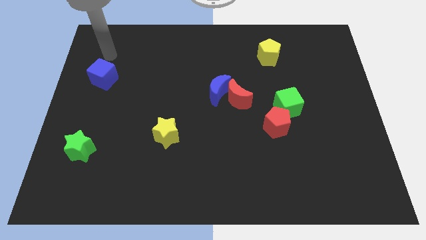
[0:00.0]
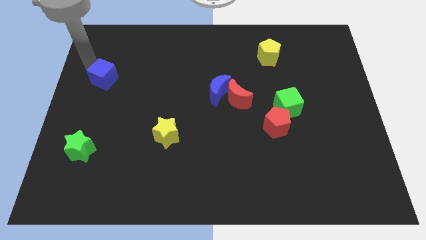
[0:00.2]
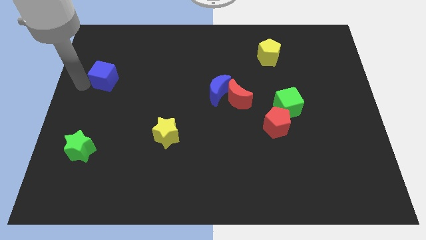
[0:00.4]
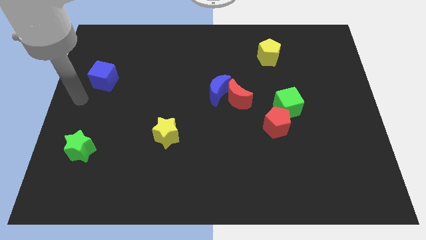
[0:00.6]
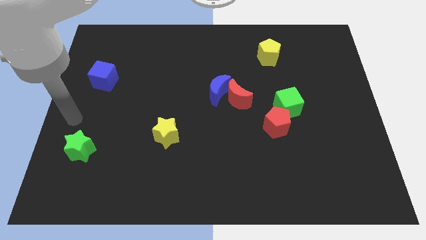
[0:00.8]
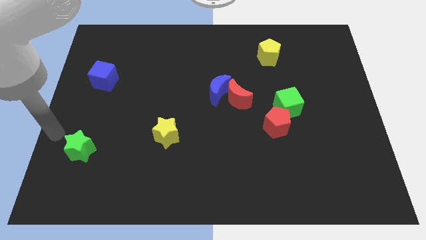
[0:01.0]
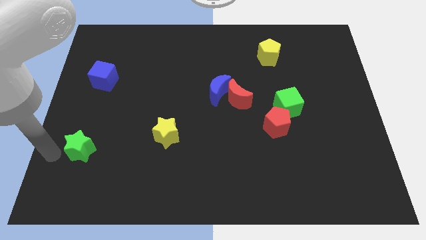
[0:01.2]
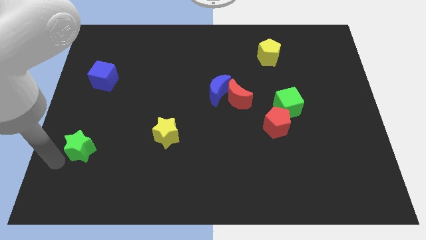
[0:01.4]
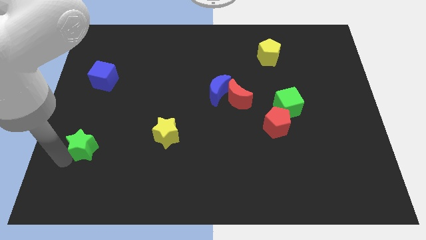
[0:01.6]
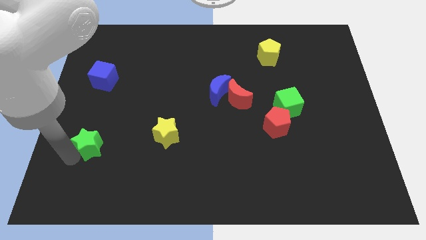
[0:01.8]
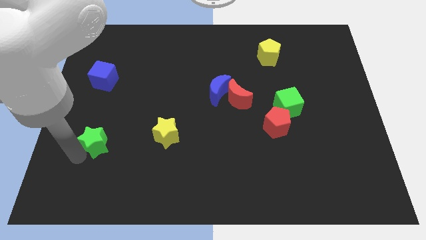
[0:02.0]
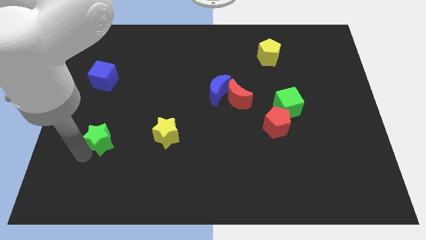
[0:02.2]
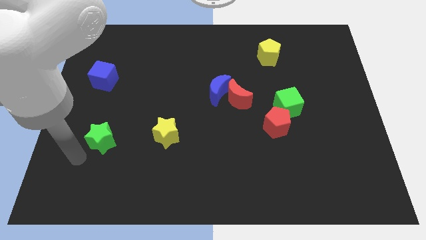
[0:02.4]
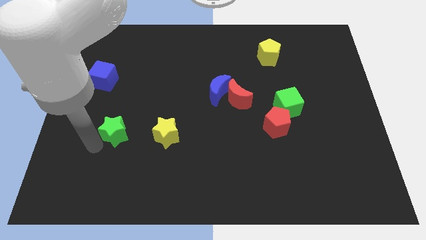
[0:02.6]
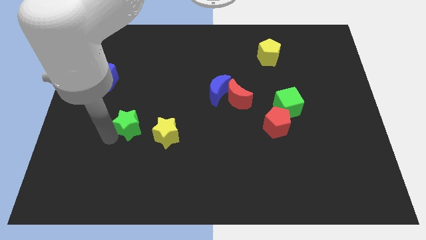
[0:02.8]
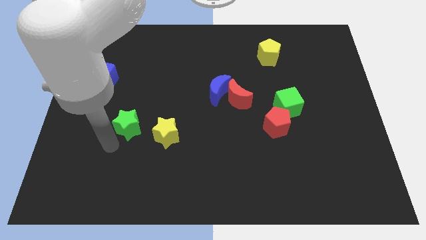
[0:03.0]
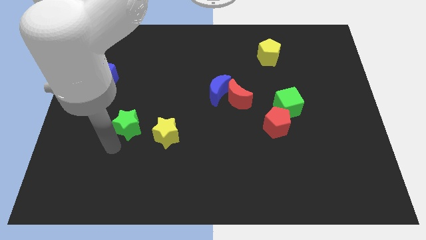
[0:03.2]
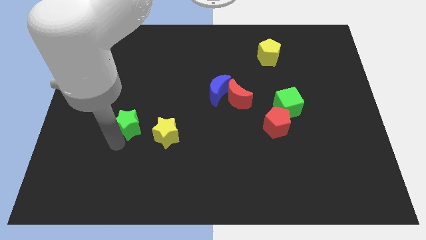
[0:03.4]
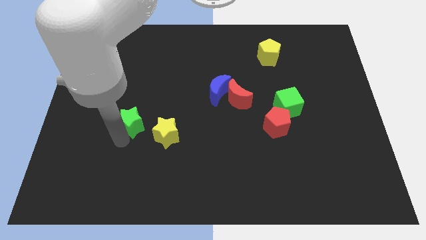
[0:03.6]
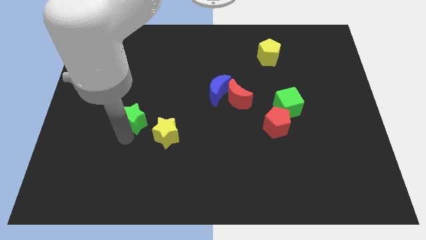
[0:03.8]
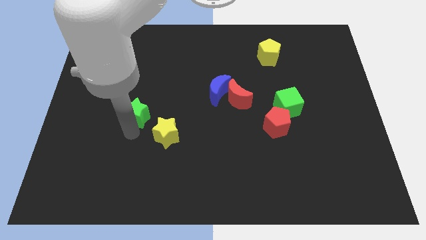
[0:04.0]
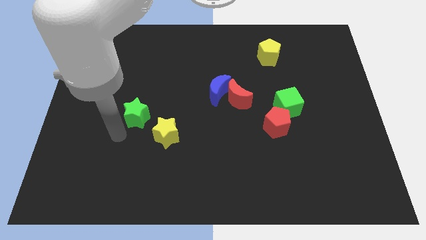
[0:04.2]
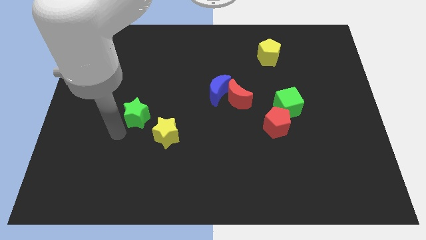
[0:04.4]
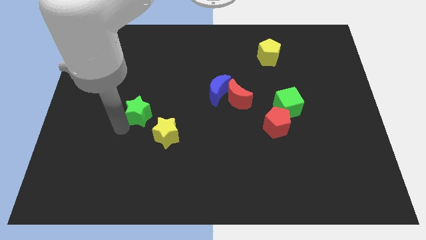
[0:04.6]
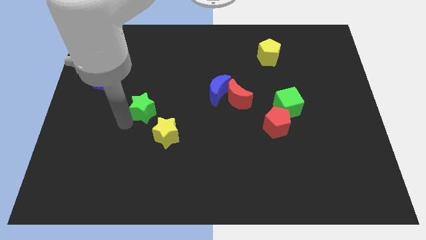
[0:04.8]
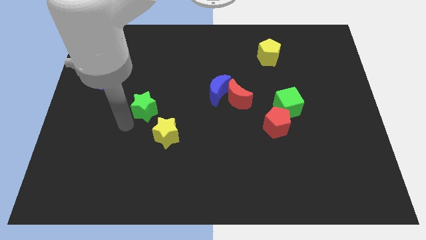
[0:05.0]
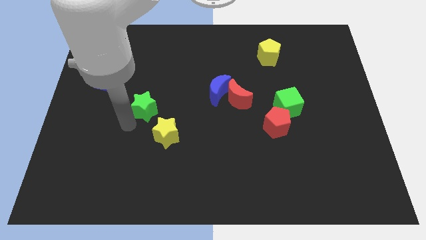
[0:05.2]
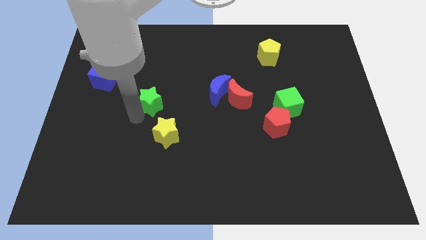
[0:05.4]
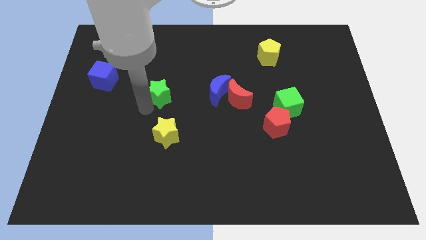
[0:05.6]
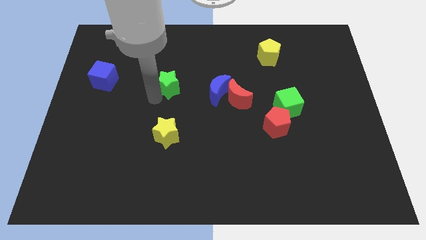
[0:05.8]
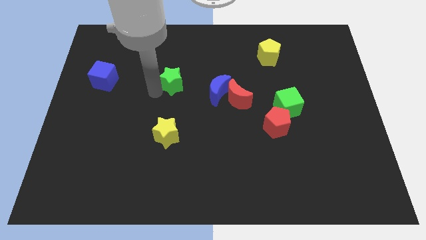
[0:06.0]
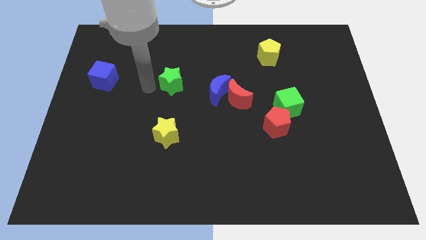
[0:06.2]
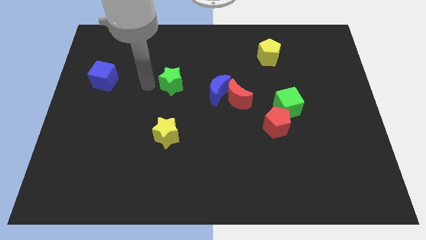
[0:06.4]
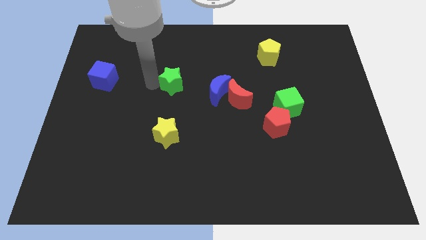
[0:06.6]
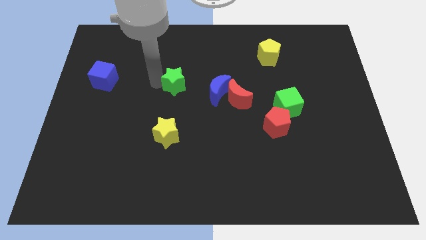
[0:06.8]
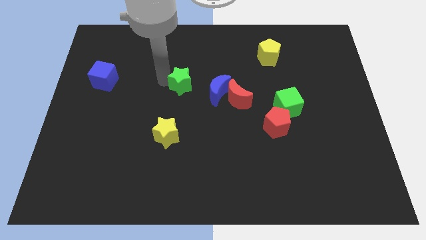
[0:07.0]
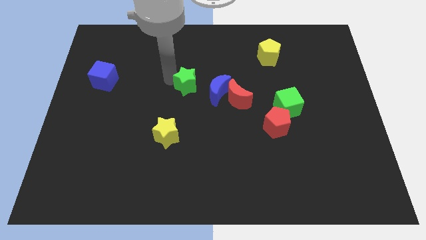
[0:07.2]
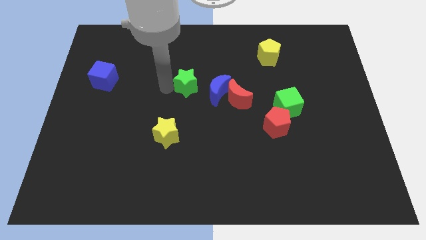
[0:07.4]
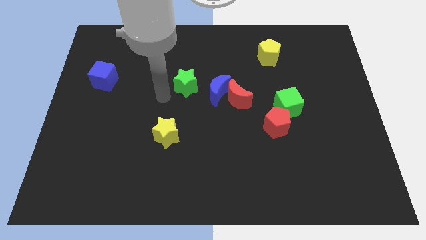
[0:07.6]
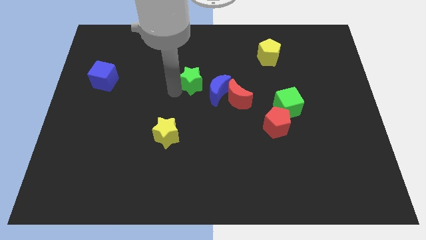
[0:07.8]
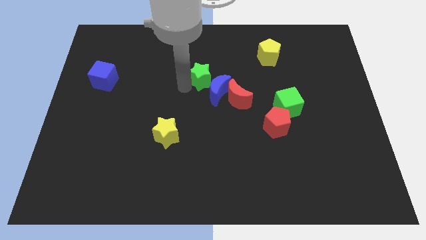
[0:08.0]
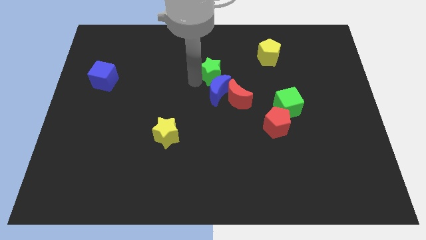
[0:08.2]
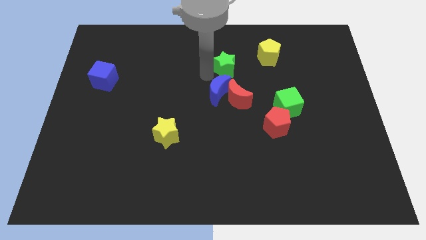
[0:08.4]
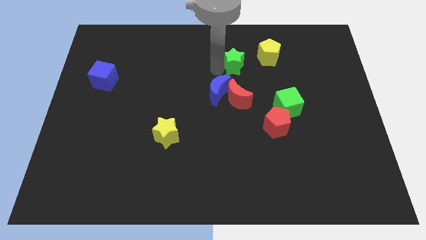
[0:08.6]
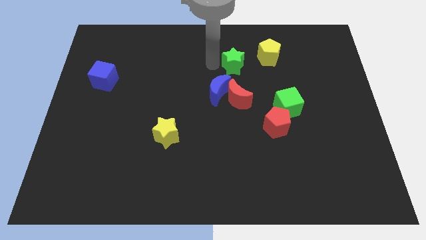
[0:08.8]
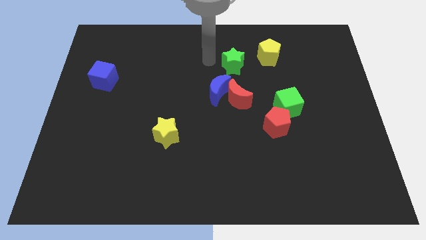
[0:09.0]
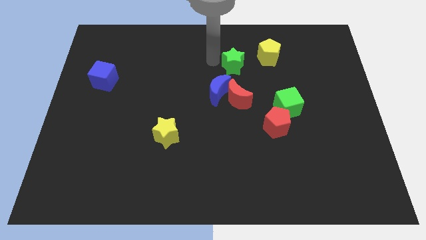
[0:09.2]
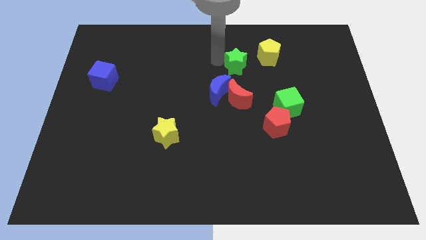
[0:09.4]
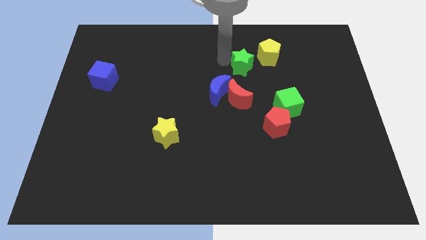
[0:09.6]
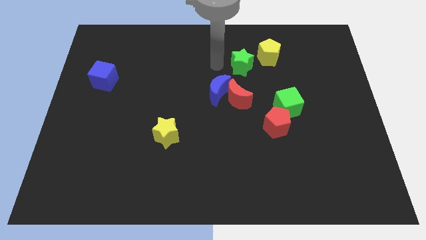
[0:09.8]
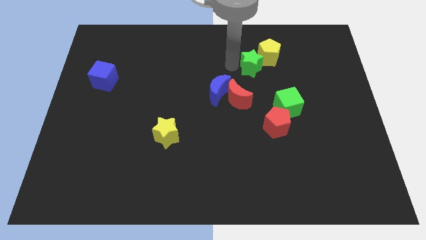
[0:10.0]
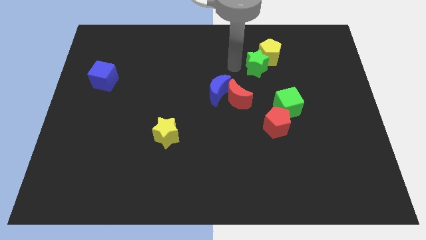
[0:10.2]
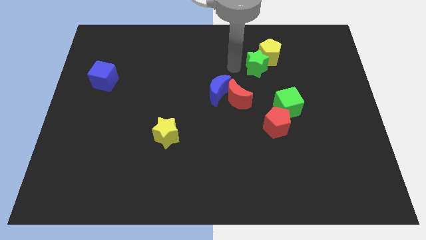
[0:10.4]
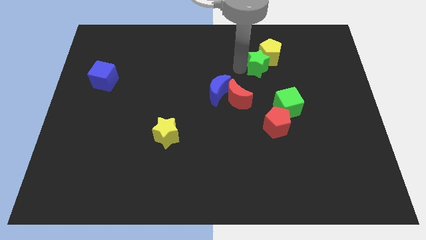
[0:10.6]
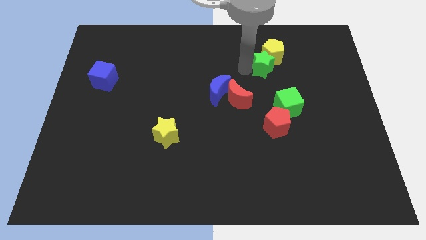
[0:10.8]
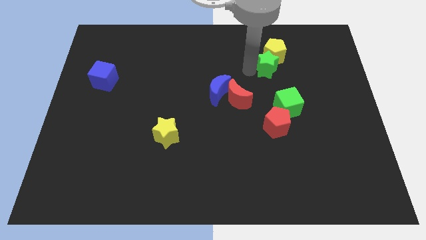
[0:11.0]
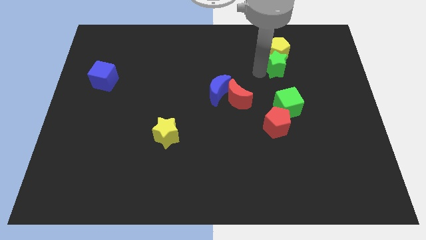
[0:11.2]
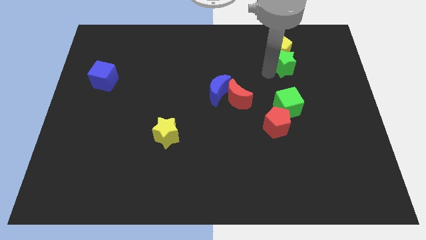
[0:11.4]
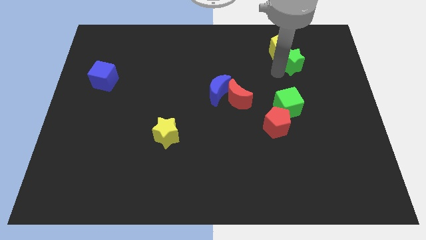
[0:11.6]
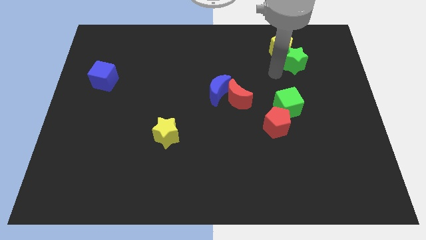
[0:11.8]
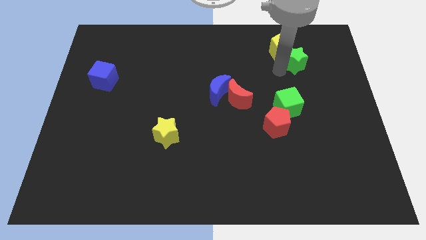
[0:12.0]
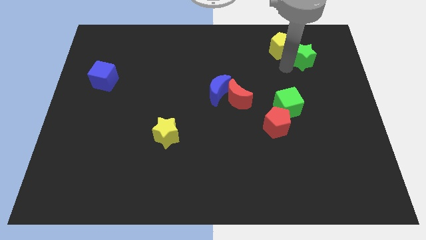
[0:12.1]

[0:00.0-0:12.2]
put the green star to the right of the yellow pentagon

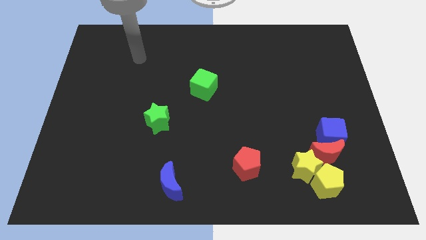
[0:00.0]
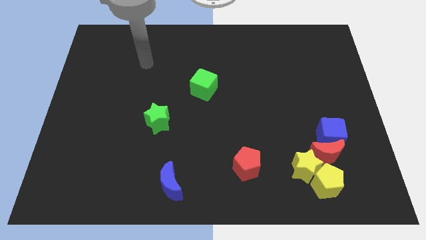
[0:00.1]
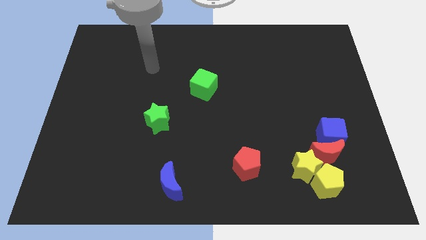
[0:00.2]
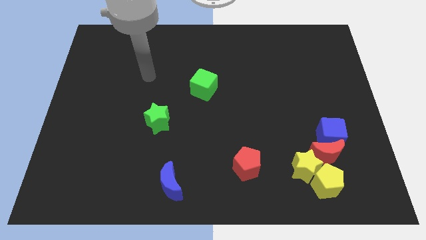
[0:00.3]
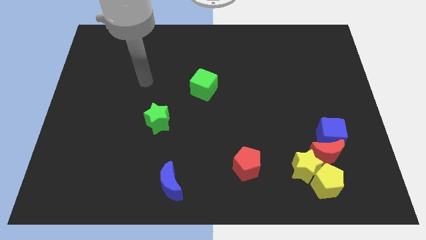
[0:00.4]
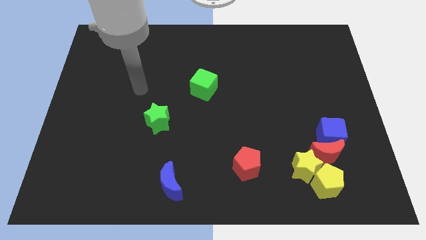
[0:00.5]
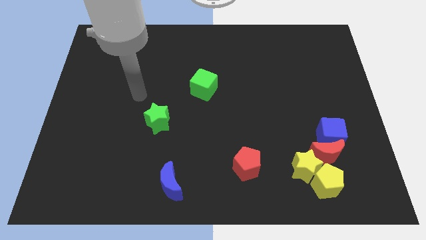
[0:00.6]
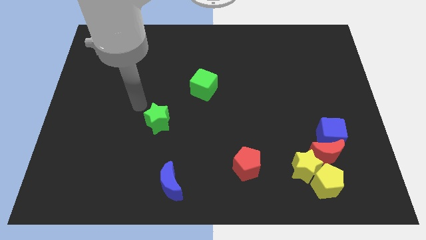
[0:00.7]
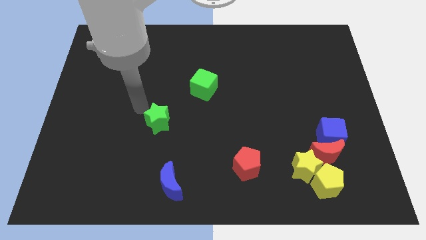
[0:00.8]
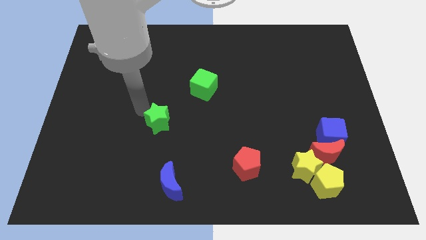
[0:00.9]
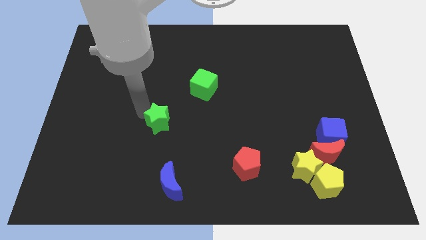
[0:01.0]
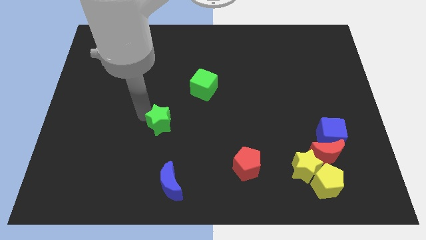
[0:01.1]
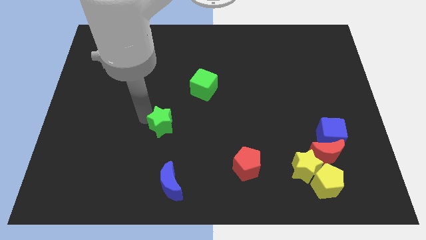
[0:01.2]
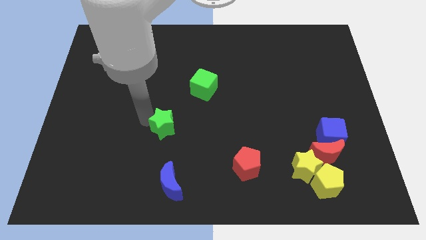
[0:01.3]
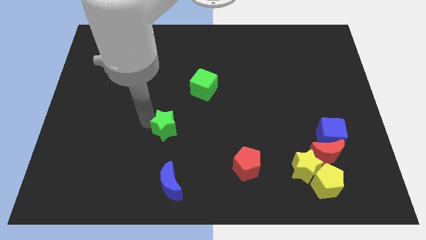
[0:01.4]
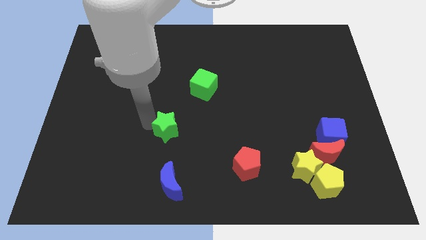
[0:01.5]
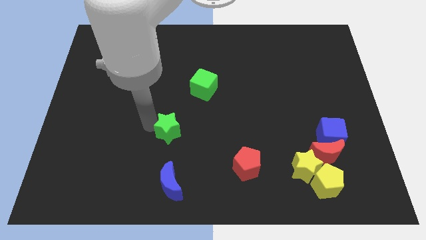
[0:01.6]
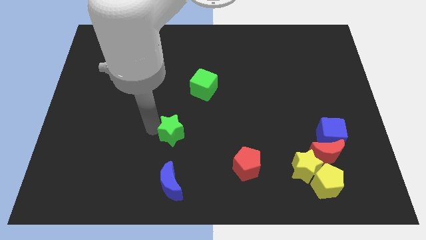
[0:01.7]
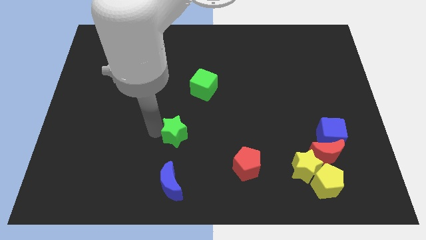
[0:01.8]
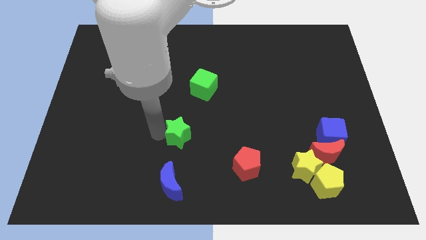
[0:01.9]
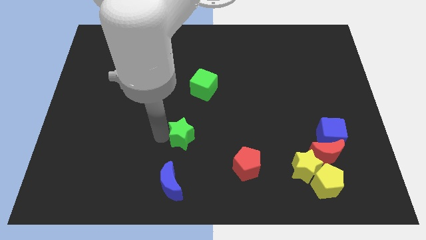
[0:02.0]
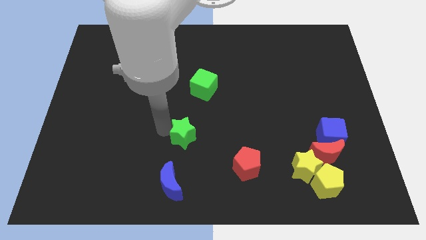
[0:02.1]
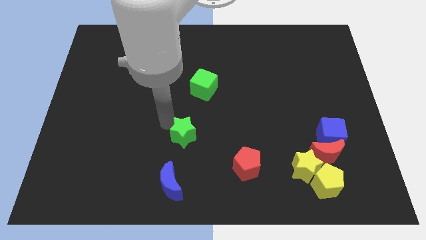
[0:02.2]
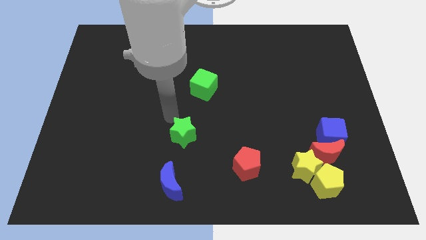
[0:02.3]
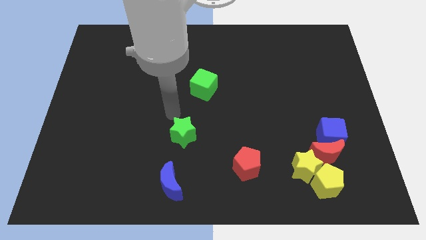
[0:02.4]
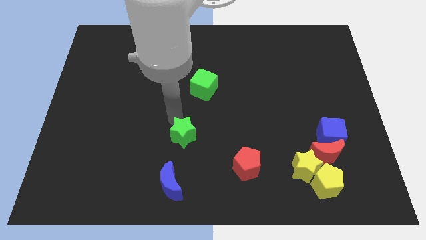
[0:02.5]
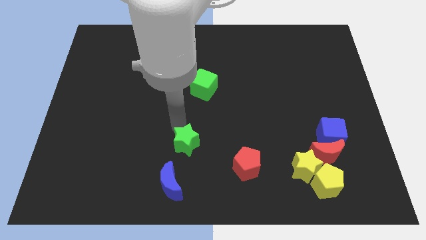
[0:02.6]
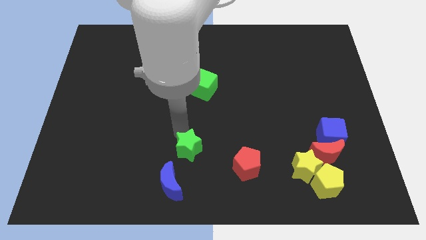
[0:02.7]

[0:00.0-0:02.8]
push the green star just left of the red pentagon
